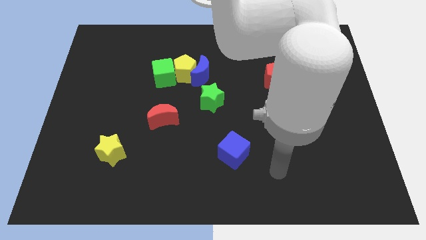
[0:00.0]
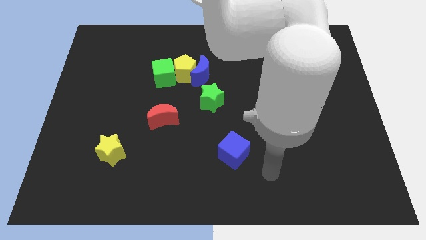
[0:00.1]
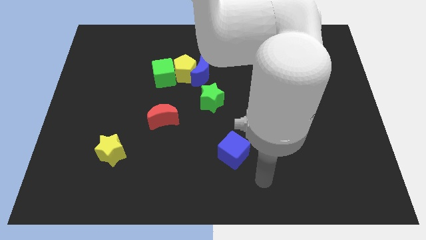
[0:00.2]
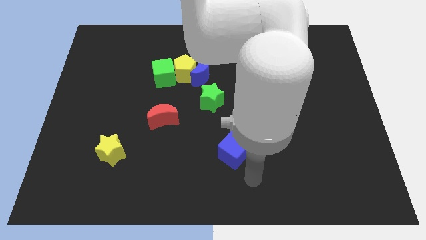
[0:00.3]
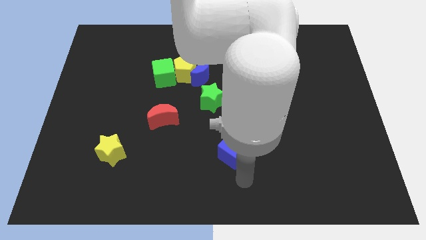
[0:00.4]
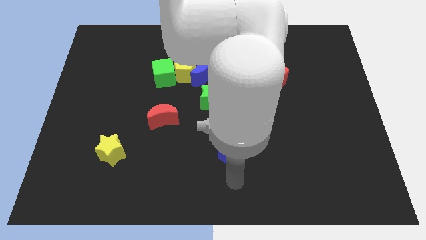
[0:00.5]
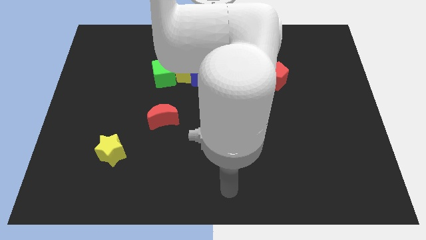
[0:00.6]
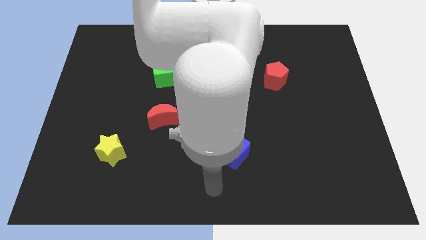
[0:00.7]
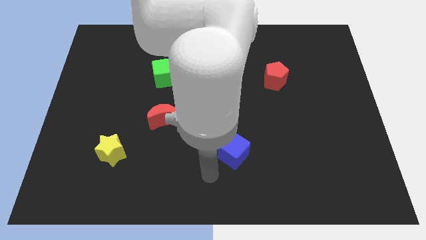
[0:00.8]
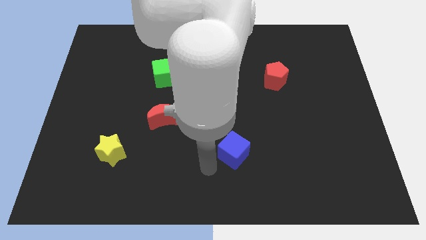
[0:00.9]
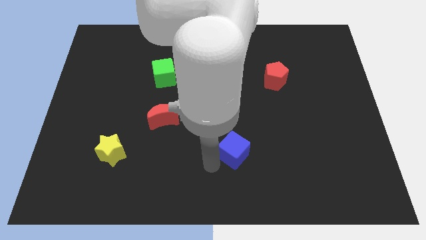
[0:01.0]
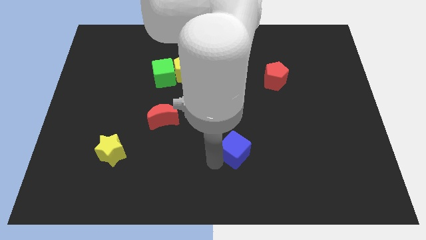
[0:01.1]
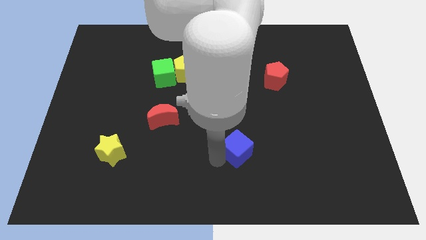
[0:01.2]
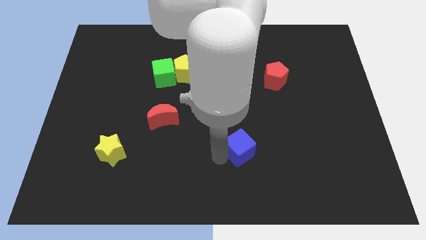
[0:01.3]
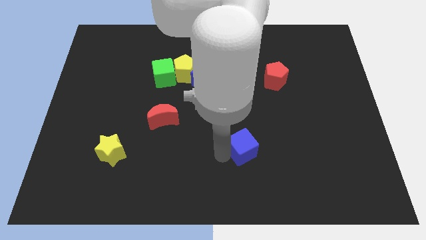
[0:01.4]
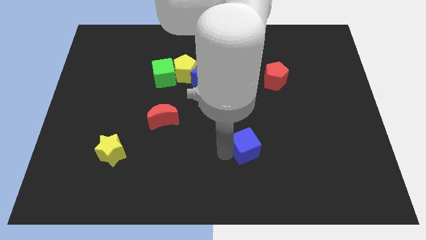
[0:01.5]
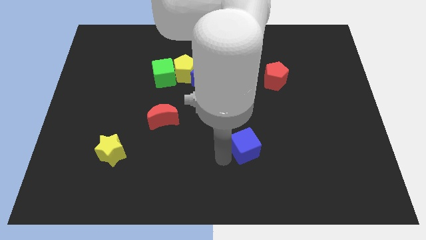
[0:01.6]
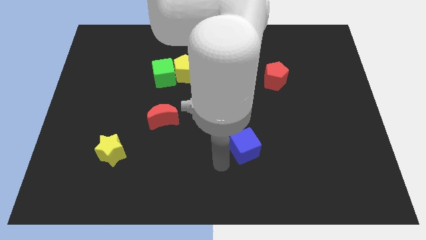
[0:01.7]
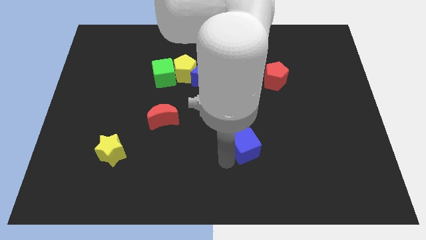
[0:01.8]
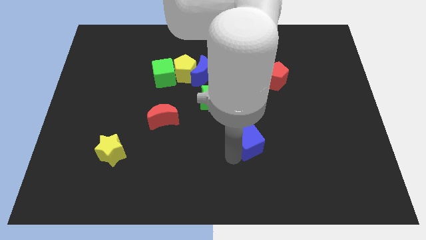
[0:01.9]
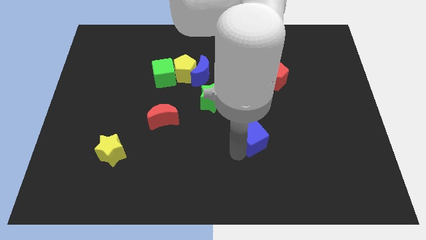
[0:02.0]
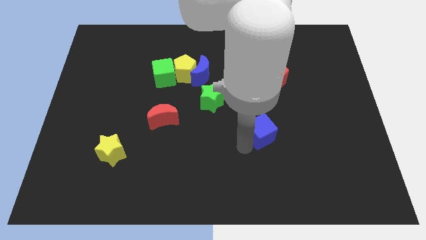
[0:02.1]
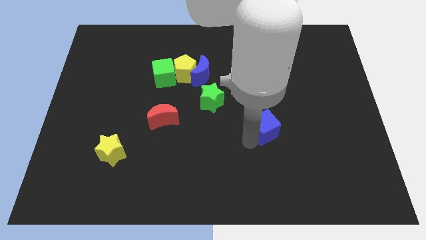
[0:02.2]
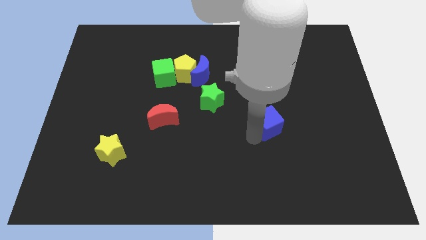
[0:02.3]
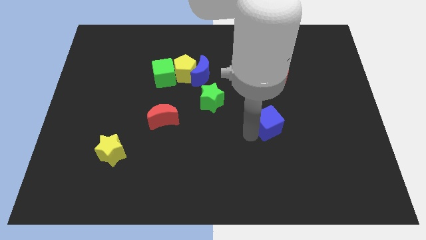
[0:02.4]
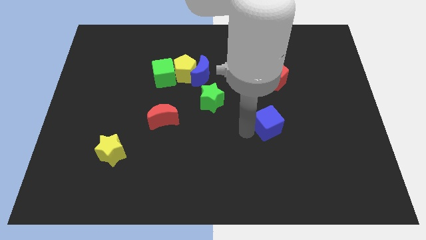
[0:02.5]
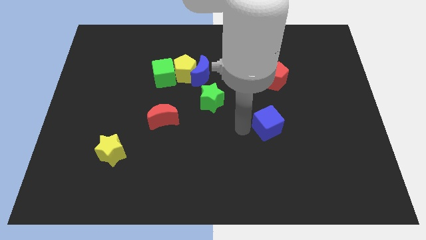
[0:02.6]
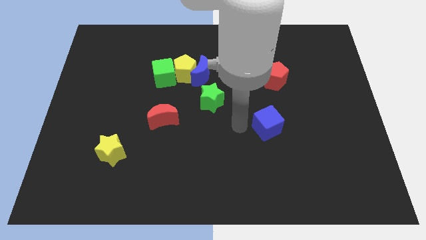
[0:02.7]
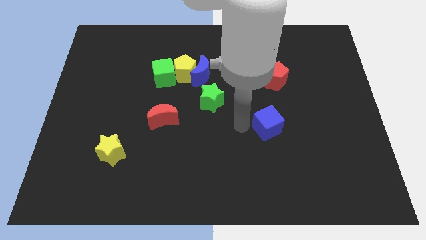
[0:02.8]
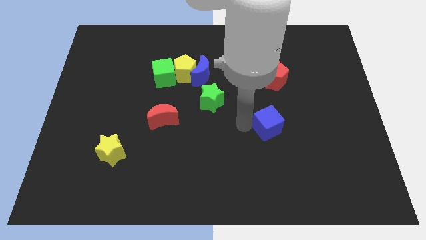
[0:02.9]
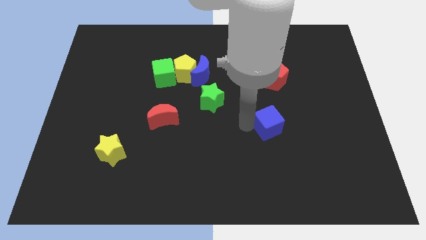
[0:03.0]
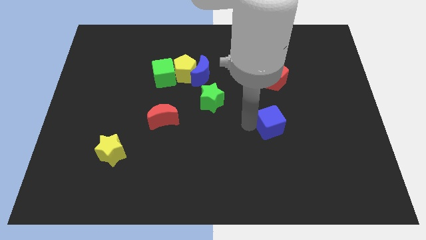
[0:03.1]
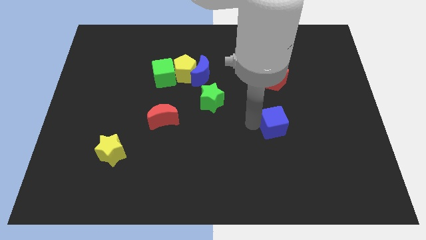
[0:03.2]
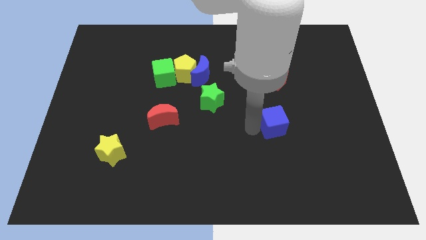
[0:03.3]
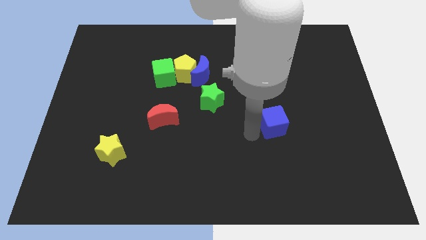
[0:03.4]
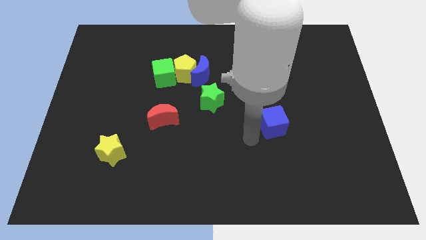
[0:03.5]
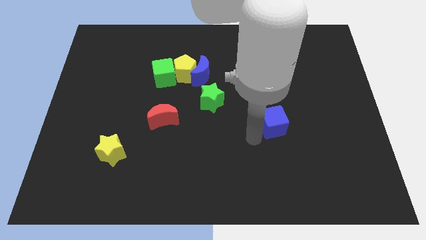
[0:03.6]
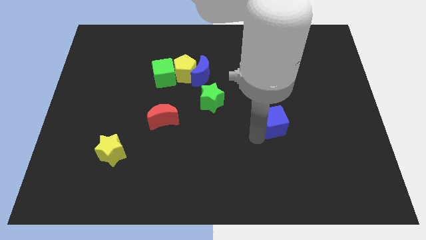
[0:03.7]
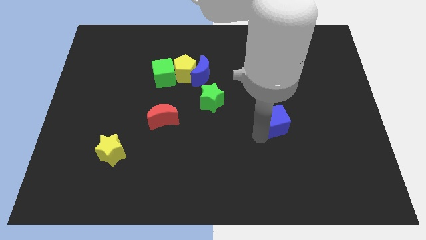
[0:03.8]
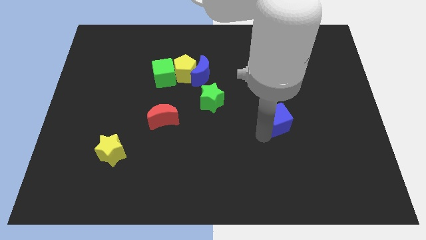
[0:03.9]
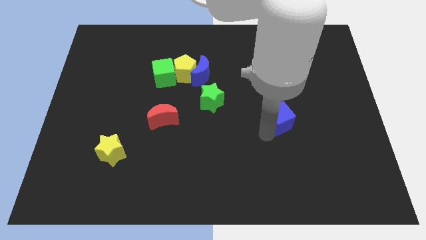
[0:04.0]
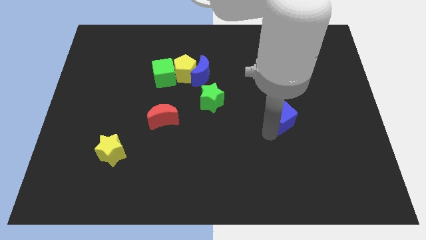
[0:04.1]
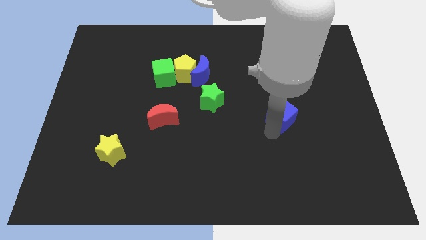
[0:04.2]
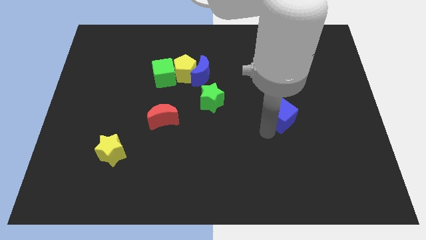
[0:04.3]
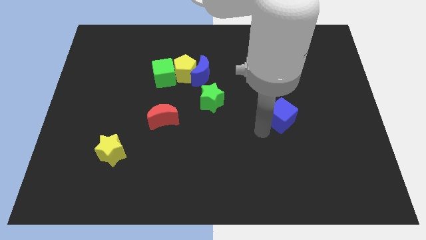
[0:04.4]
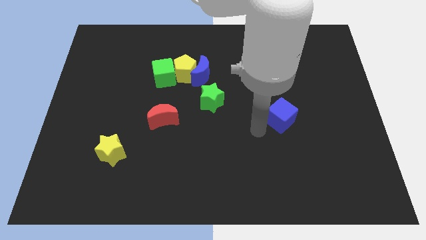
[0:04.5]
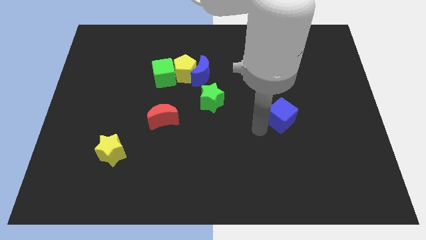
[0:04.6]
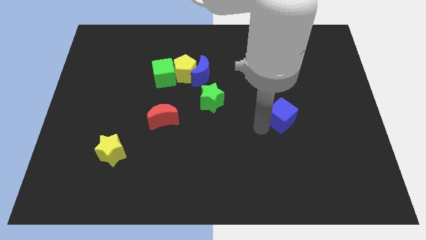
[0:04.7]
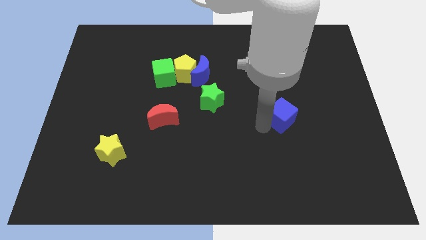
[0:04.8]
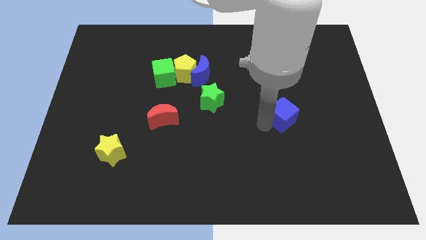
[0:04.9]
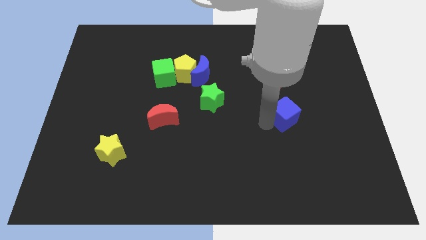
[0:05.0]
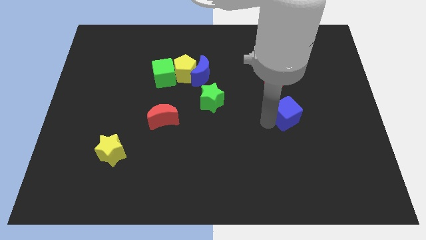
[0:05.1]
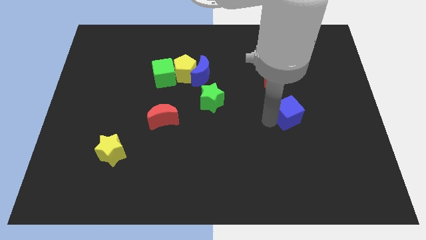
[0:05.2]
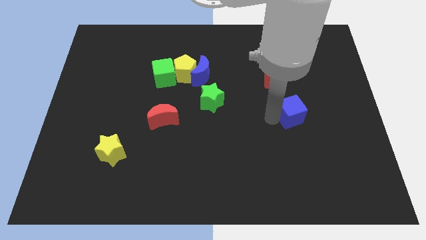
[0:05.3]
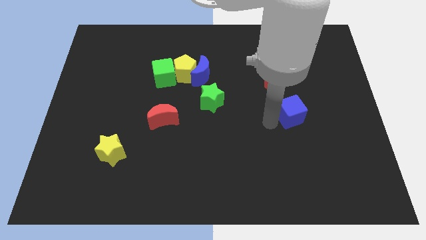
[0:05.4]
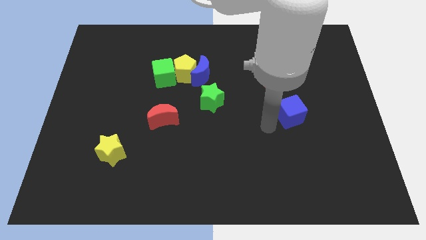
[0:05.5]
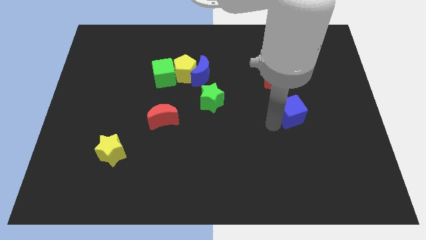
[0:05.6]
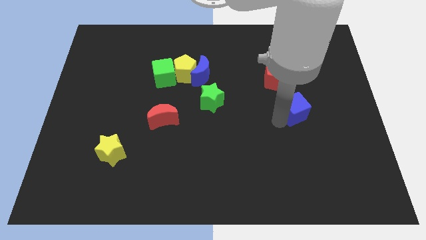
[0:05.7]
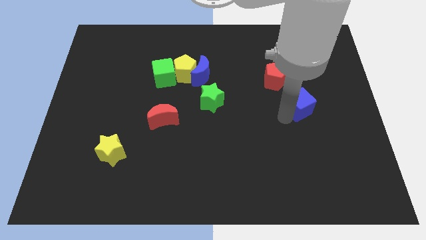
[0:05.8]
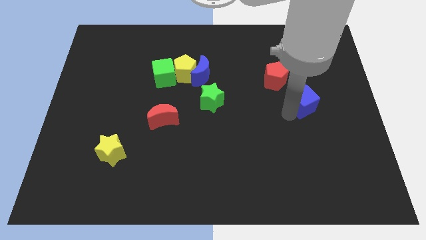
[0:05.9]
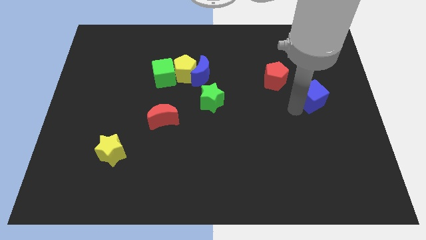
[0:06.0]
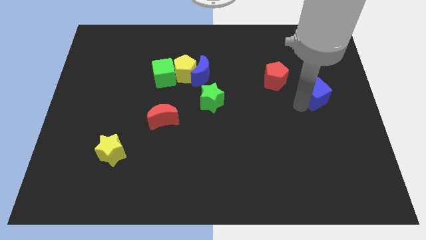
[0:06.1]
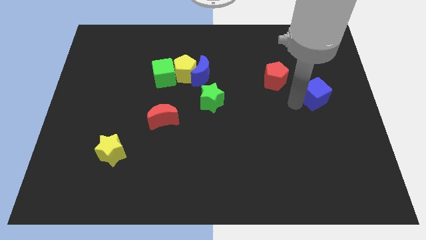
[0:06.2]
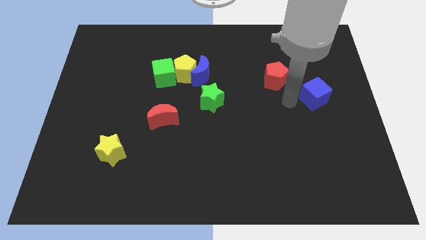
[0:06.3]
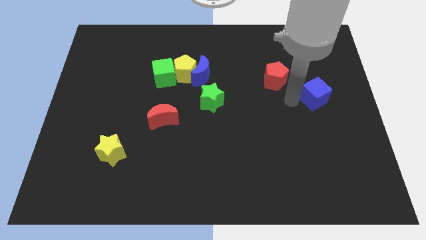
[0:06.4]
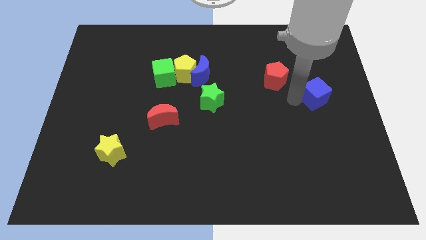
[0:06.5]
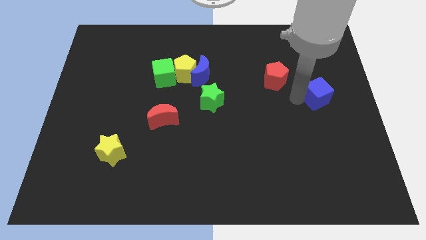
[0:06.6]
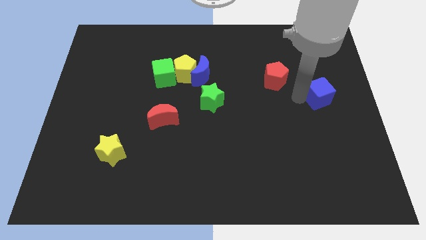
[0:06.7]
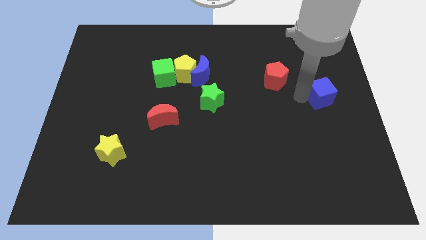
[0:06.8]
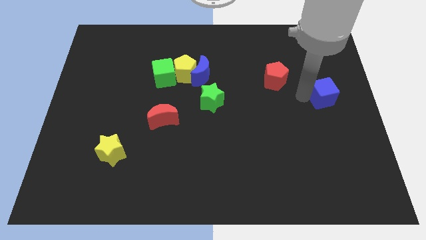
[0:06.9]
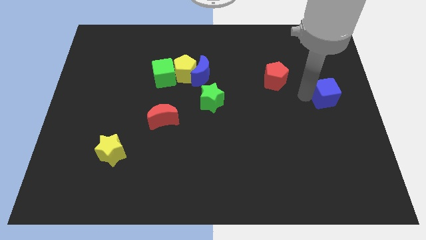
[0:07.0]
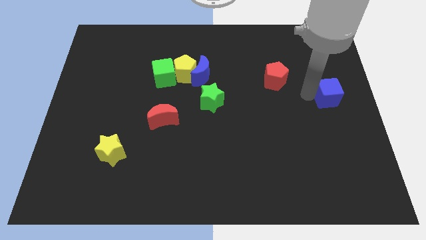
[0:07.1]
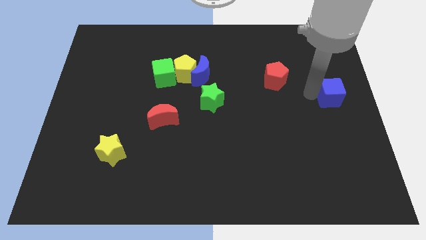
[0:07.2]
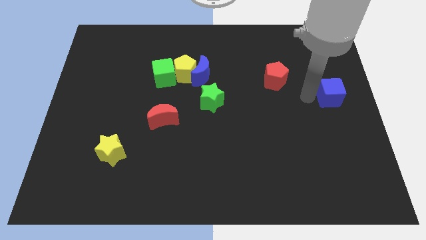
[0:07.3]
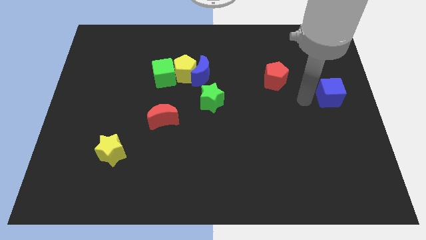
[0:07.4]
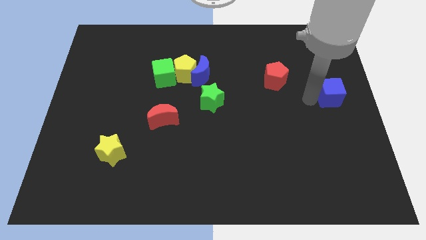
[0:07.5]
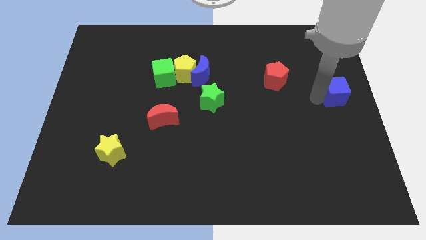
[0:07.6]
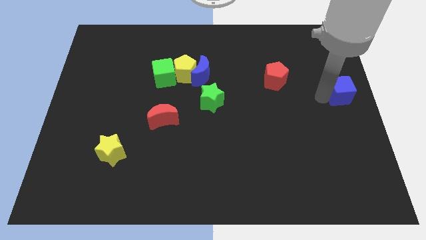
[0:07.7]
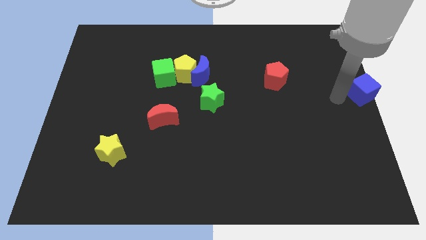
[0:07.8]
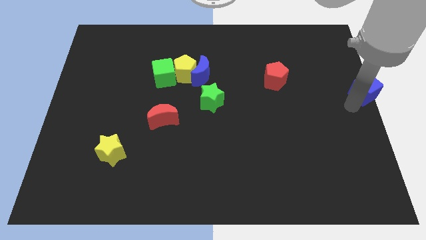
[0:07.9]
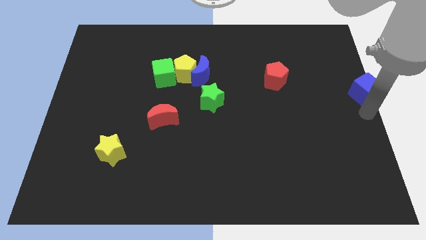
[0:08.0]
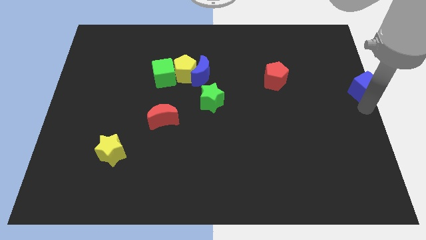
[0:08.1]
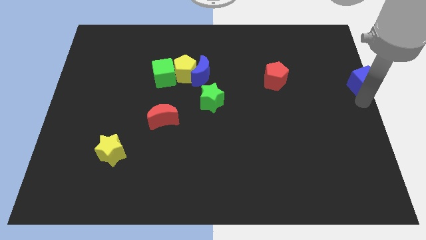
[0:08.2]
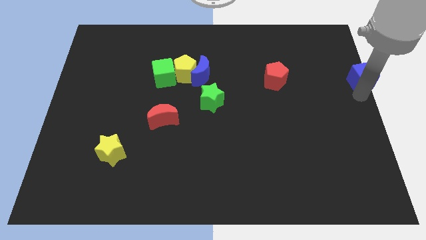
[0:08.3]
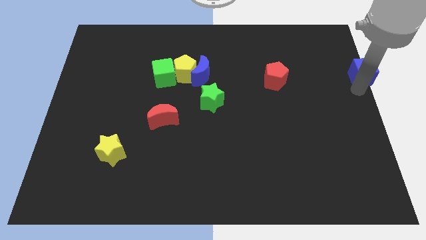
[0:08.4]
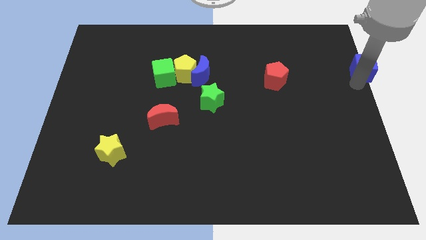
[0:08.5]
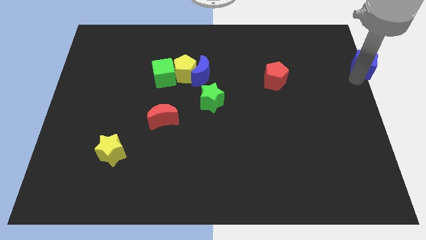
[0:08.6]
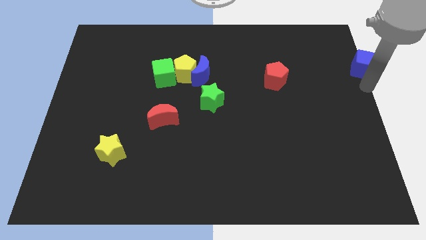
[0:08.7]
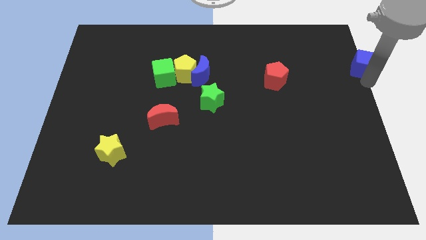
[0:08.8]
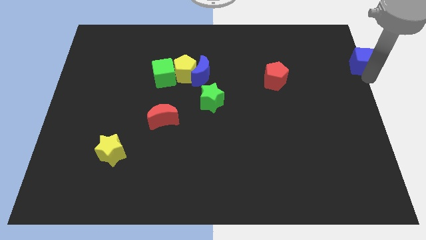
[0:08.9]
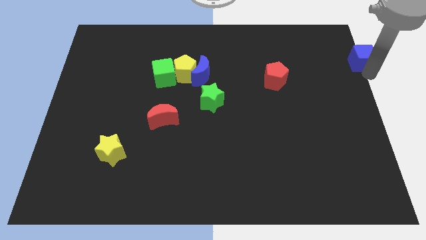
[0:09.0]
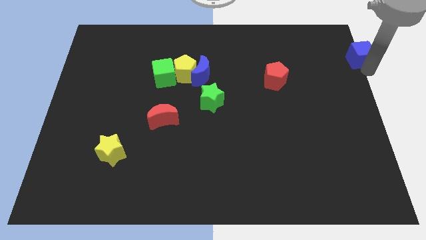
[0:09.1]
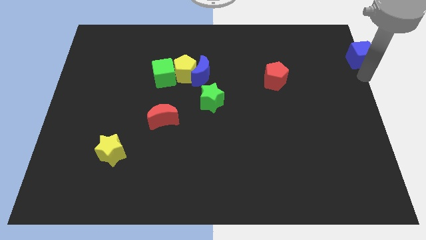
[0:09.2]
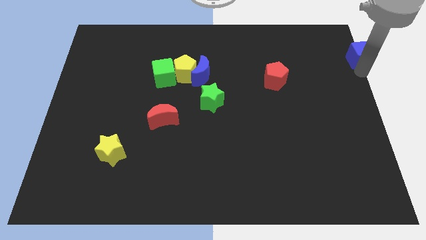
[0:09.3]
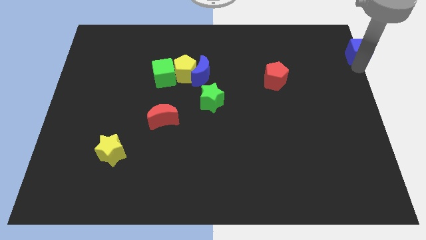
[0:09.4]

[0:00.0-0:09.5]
move the blue cube to the top right of the board
